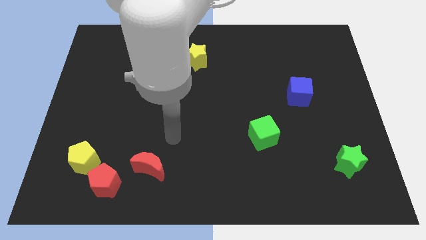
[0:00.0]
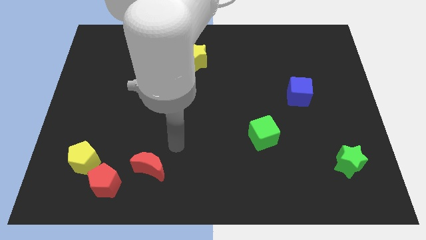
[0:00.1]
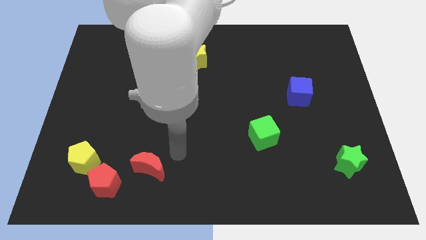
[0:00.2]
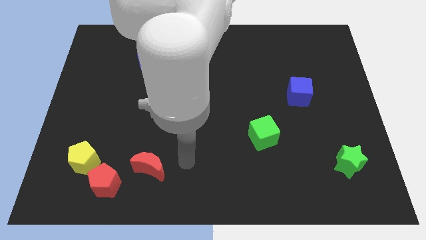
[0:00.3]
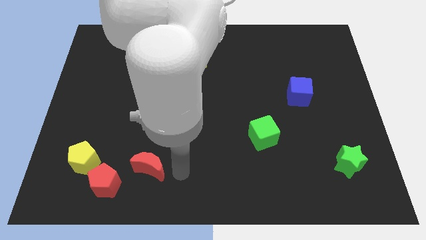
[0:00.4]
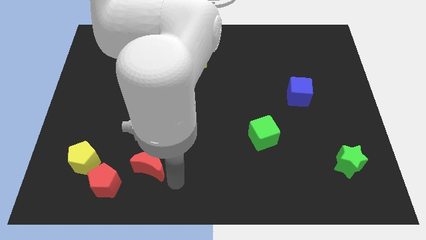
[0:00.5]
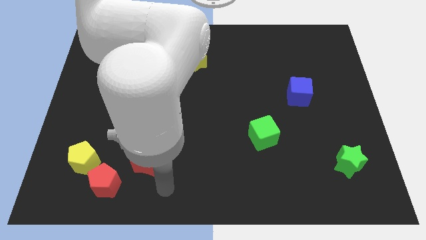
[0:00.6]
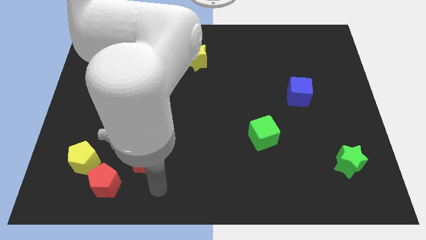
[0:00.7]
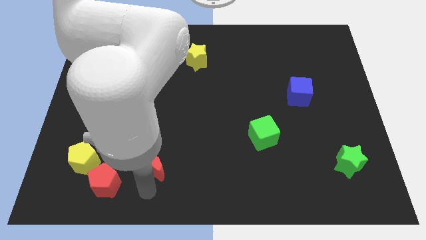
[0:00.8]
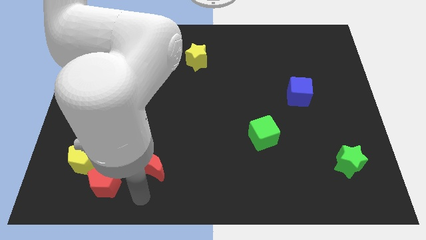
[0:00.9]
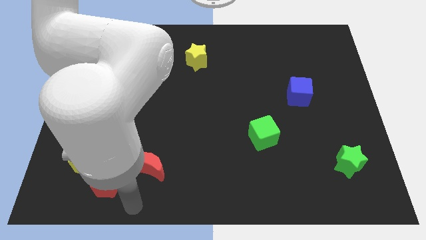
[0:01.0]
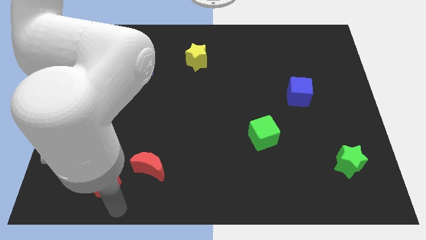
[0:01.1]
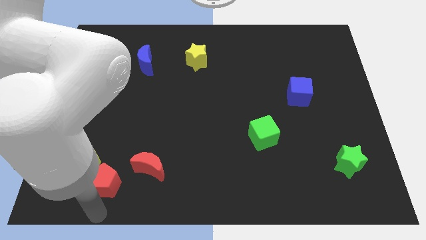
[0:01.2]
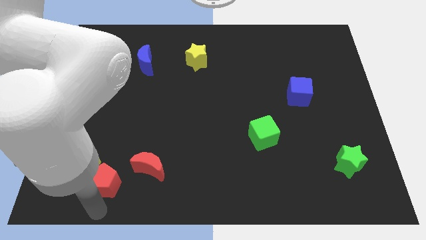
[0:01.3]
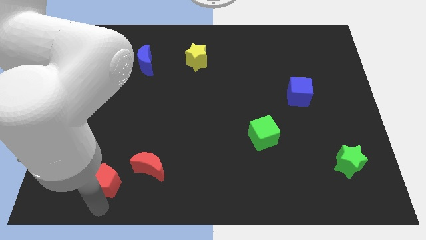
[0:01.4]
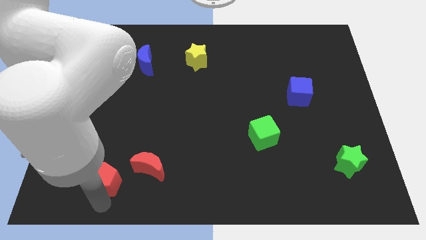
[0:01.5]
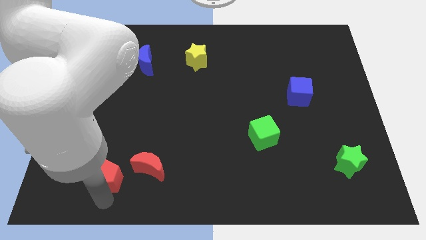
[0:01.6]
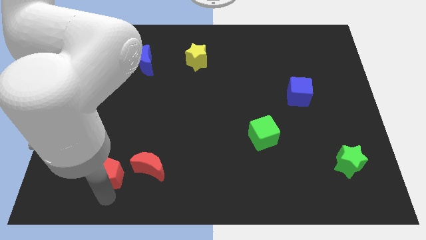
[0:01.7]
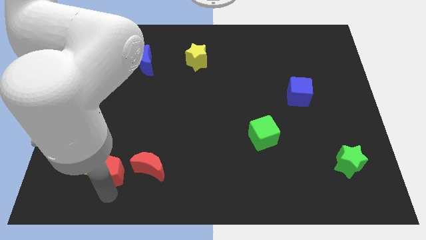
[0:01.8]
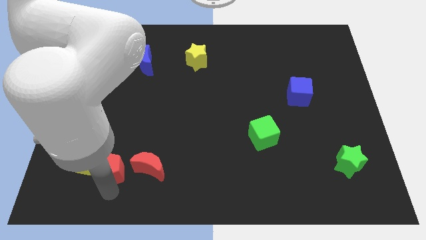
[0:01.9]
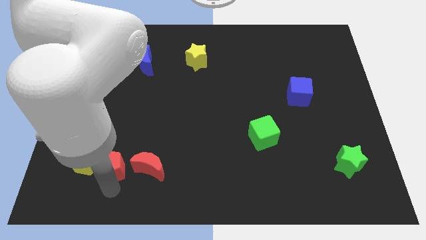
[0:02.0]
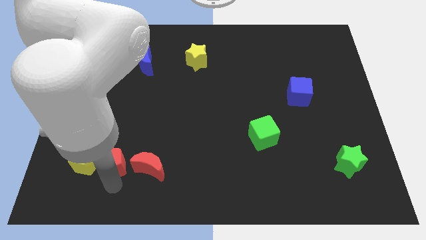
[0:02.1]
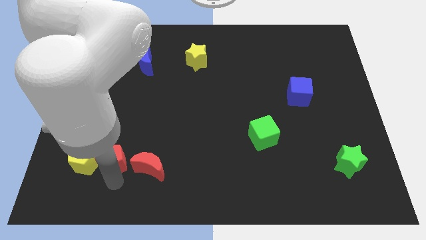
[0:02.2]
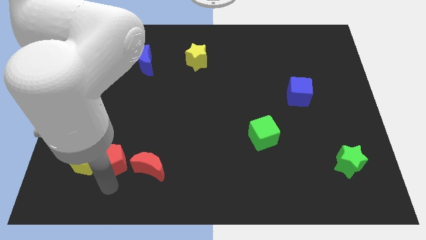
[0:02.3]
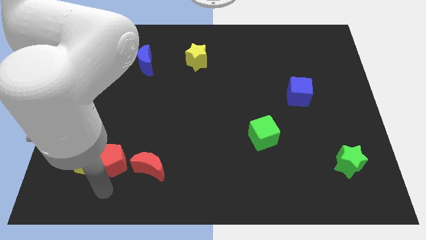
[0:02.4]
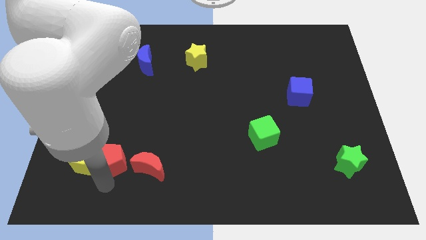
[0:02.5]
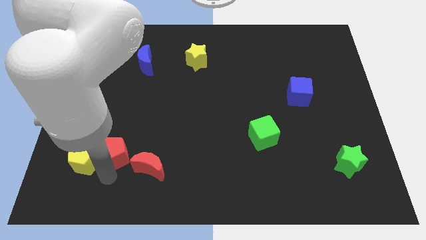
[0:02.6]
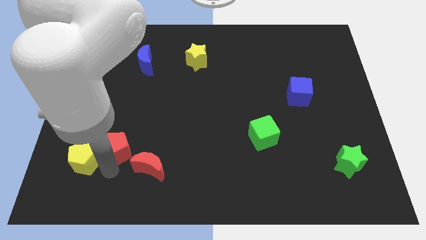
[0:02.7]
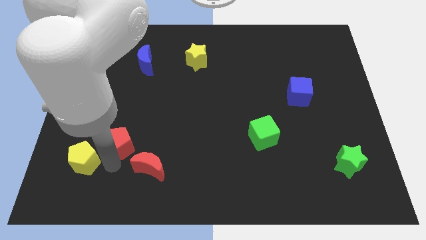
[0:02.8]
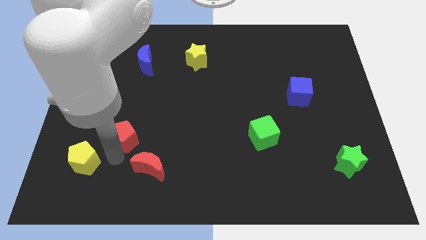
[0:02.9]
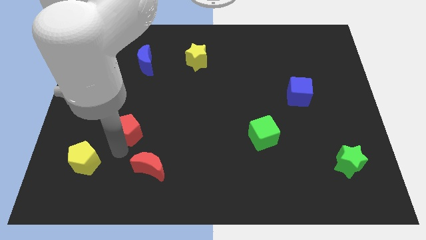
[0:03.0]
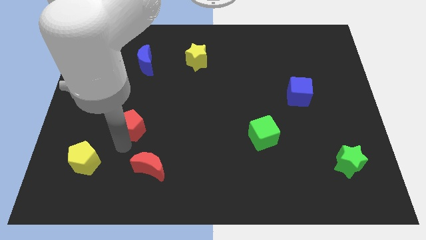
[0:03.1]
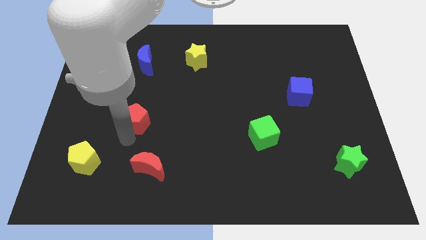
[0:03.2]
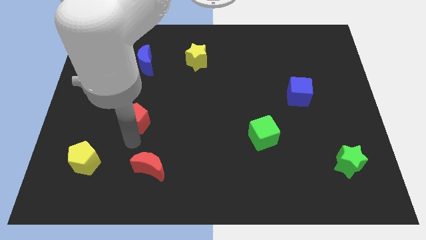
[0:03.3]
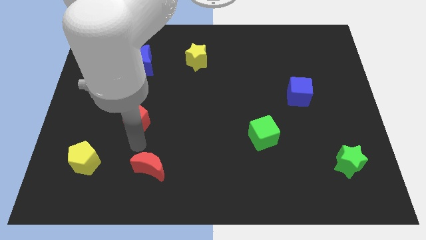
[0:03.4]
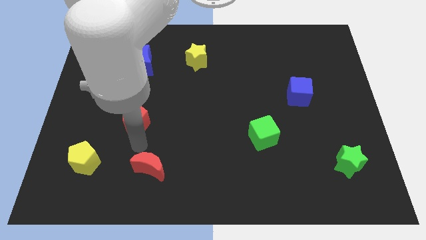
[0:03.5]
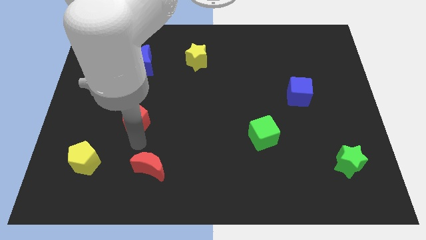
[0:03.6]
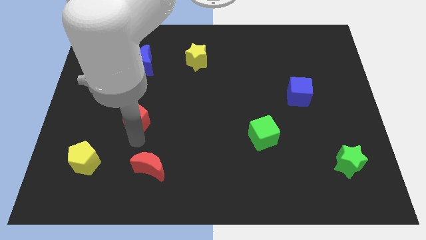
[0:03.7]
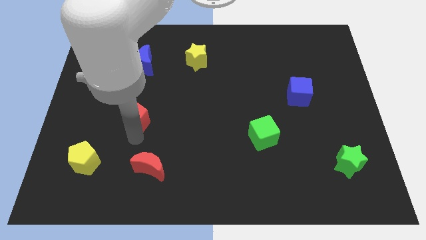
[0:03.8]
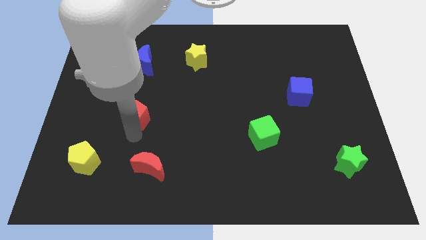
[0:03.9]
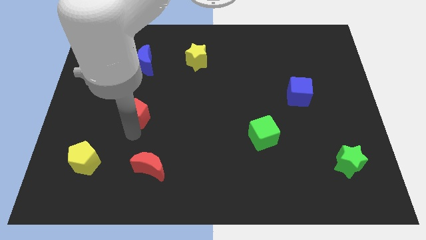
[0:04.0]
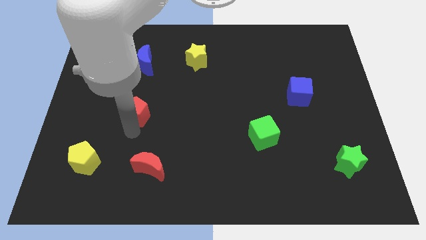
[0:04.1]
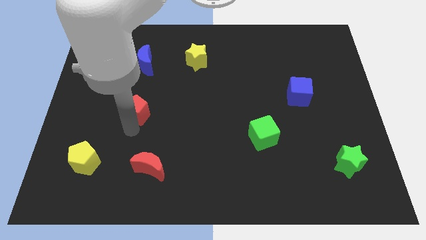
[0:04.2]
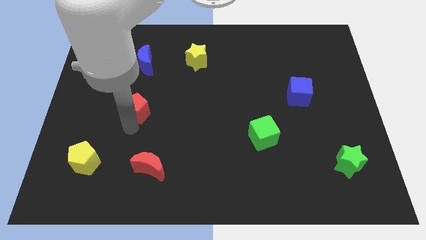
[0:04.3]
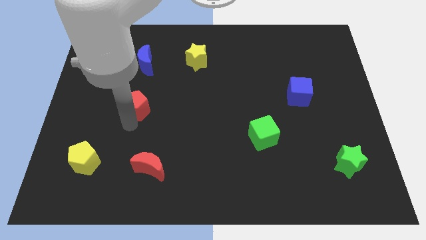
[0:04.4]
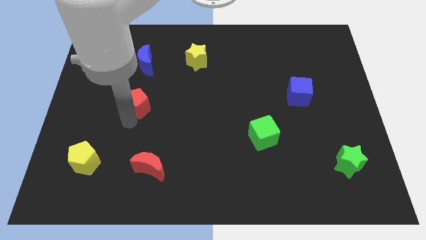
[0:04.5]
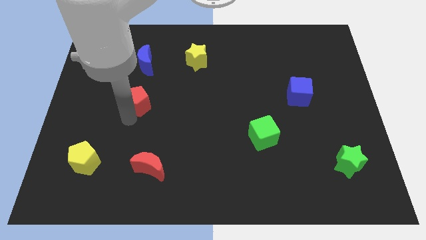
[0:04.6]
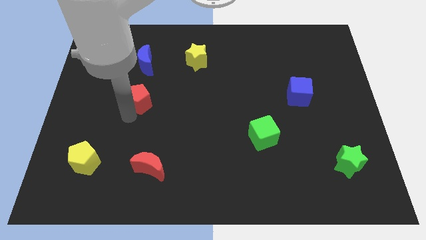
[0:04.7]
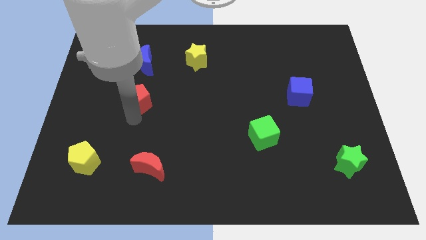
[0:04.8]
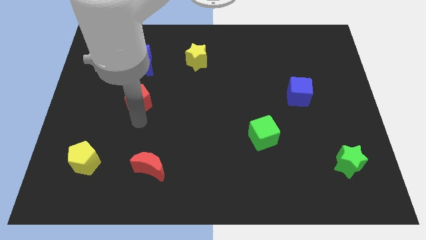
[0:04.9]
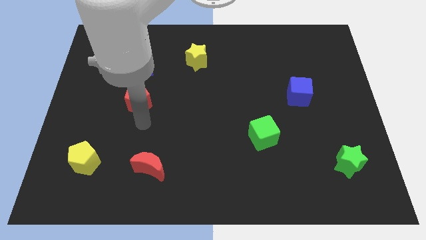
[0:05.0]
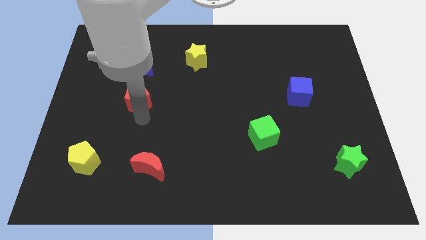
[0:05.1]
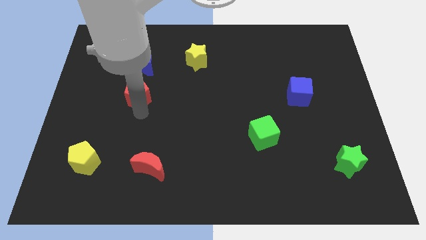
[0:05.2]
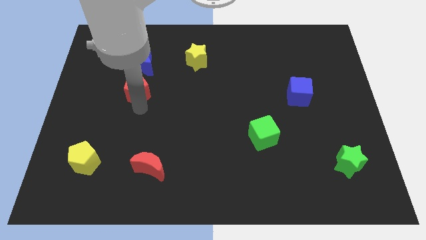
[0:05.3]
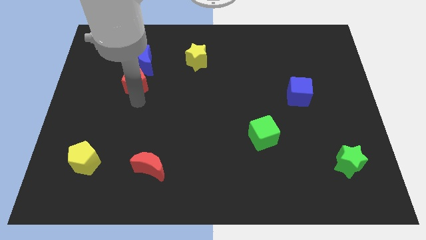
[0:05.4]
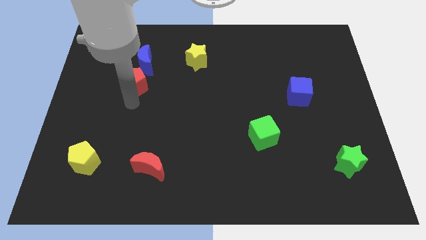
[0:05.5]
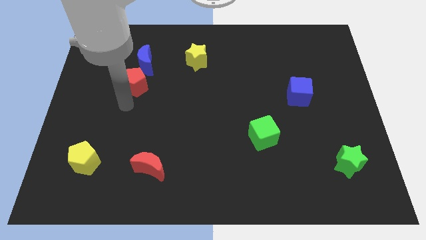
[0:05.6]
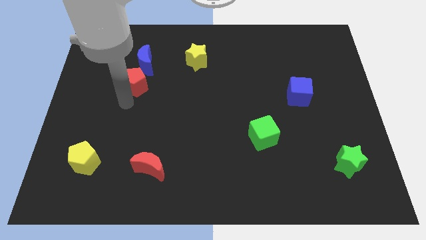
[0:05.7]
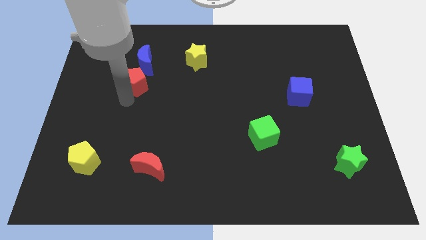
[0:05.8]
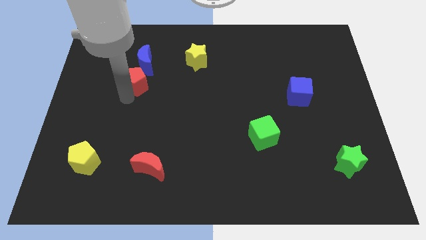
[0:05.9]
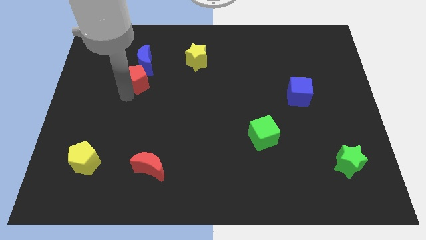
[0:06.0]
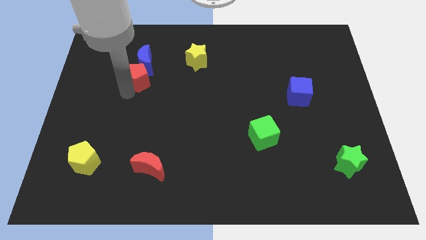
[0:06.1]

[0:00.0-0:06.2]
move the red pentagon to the blue moon
